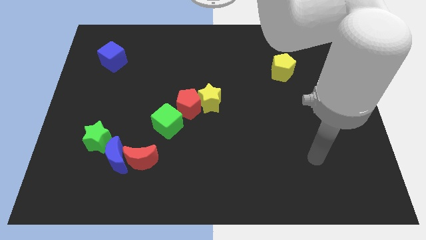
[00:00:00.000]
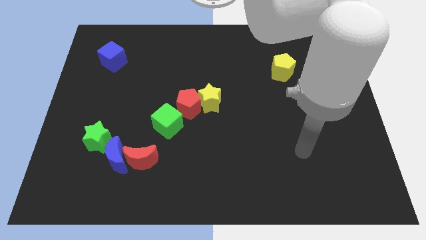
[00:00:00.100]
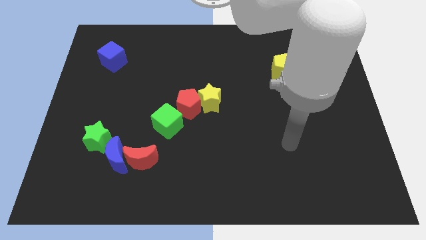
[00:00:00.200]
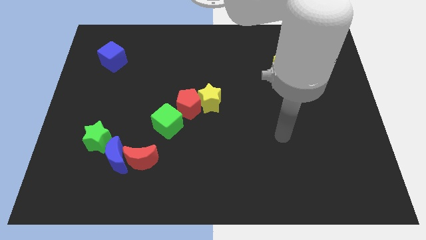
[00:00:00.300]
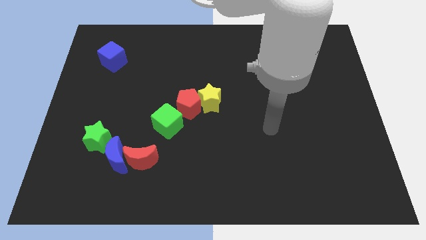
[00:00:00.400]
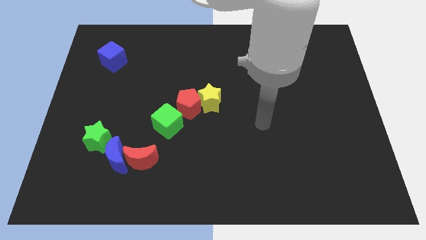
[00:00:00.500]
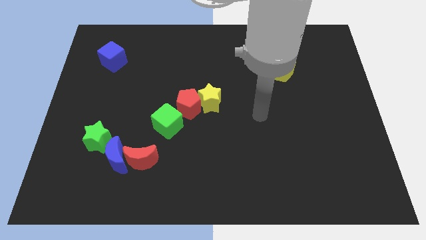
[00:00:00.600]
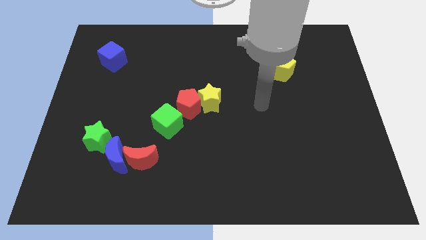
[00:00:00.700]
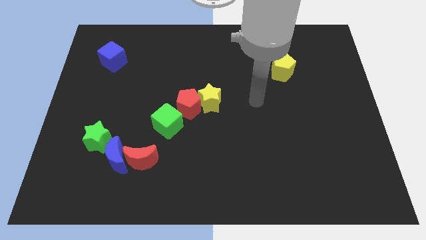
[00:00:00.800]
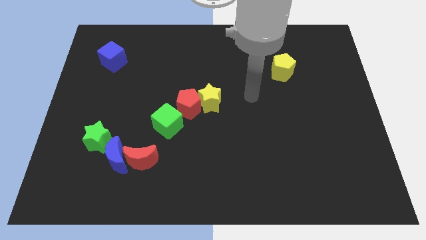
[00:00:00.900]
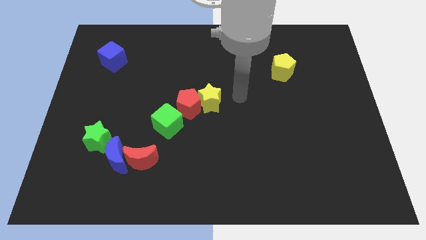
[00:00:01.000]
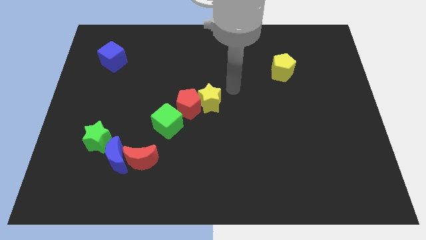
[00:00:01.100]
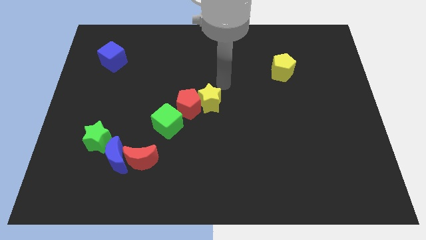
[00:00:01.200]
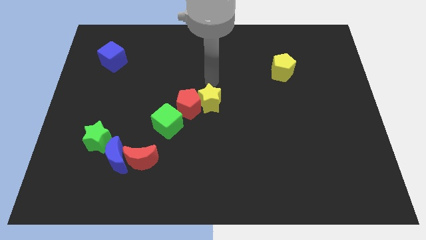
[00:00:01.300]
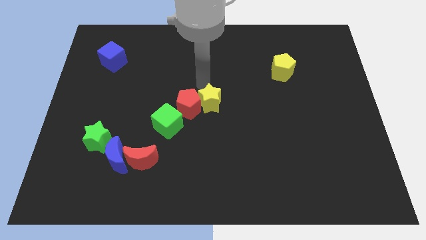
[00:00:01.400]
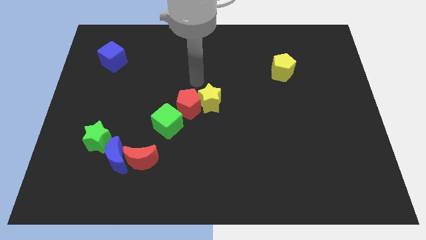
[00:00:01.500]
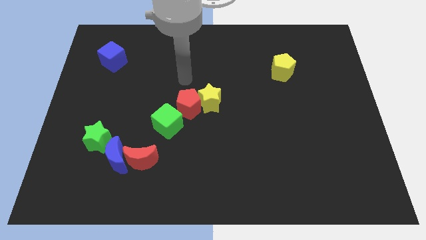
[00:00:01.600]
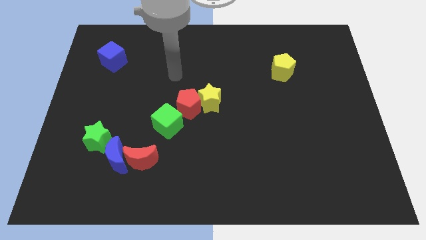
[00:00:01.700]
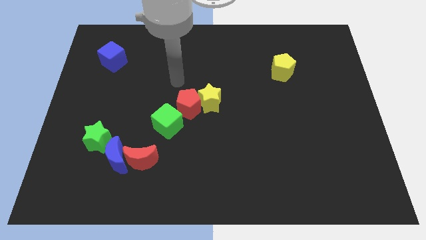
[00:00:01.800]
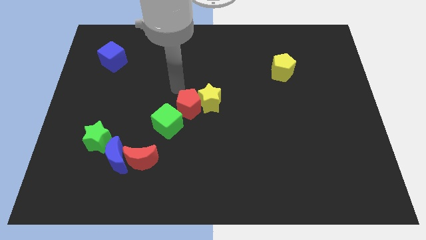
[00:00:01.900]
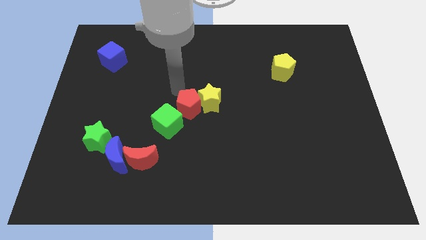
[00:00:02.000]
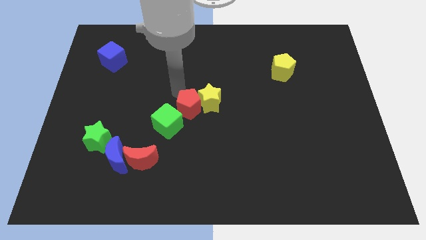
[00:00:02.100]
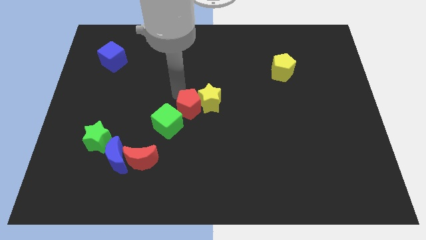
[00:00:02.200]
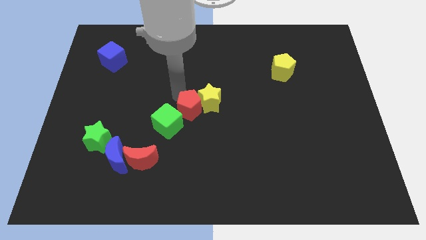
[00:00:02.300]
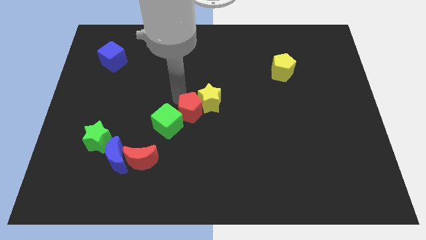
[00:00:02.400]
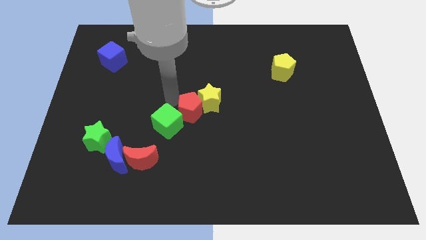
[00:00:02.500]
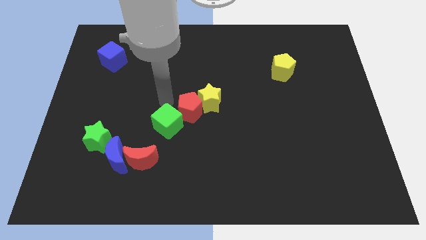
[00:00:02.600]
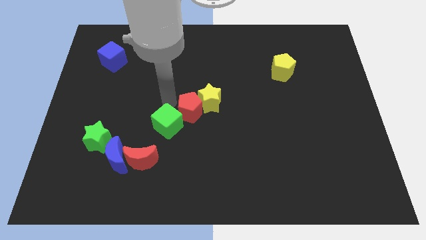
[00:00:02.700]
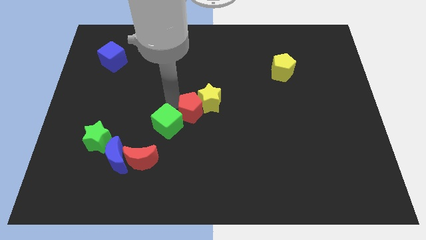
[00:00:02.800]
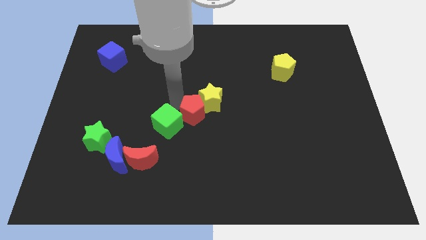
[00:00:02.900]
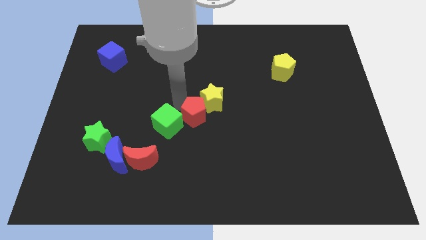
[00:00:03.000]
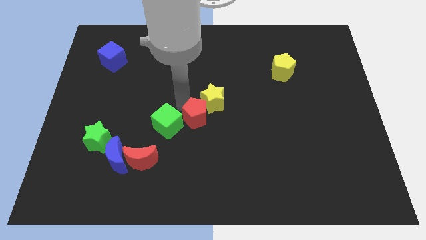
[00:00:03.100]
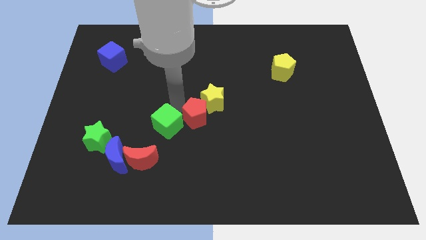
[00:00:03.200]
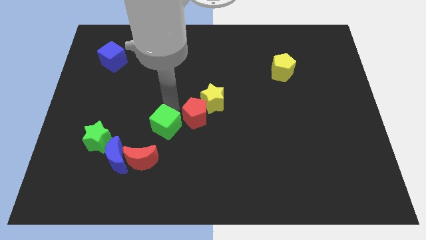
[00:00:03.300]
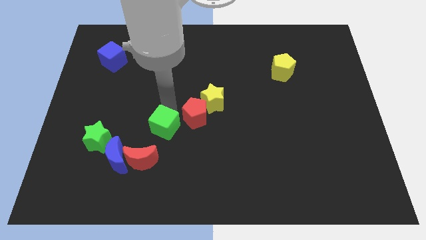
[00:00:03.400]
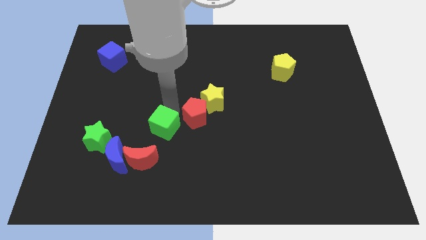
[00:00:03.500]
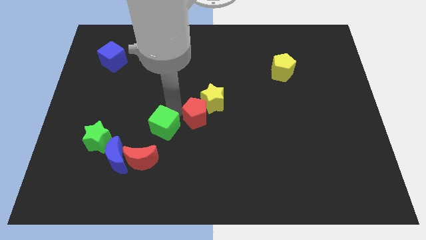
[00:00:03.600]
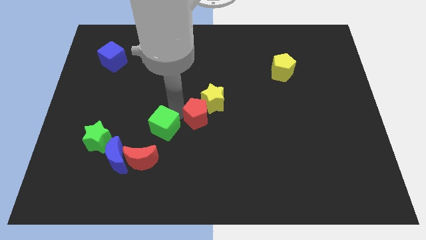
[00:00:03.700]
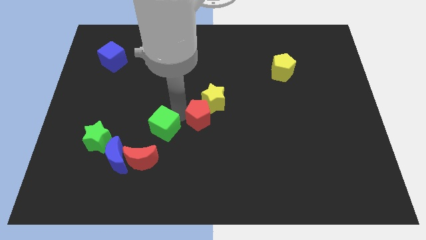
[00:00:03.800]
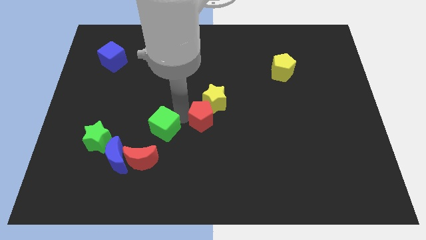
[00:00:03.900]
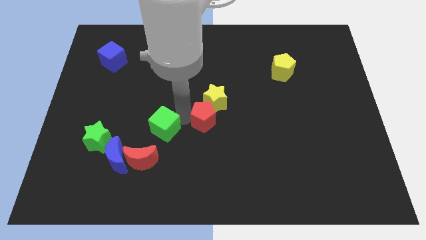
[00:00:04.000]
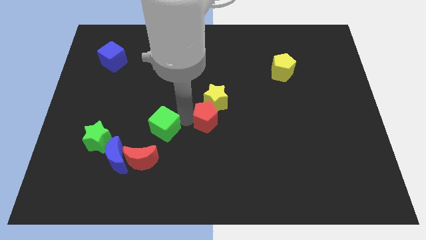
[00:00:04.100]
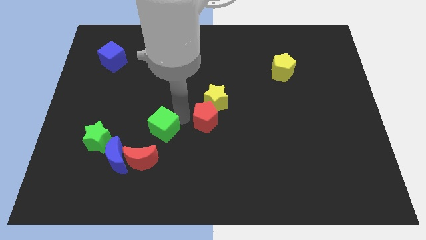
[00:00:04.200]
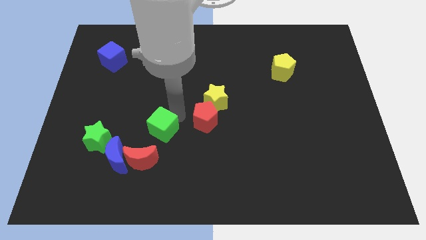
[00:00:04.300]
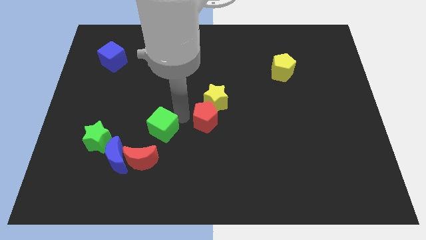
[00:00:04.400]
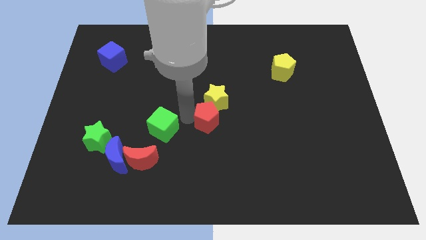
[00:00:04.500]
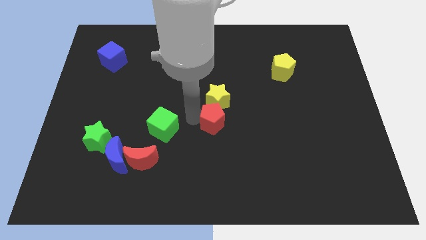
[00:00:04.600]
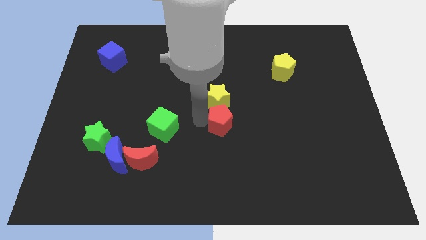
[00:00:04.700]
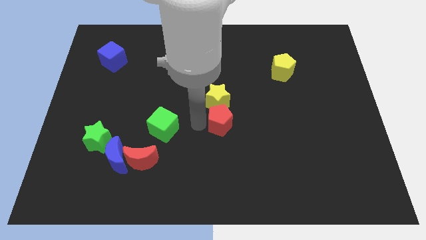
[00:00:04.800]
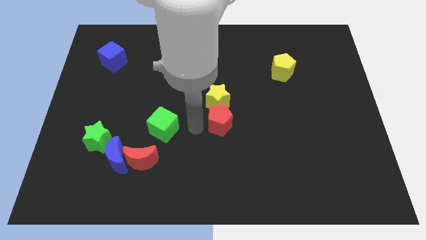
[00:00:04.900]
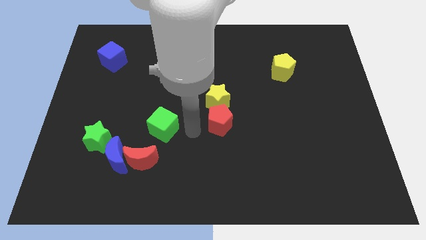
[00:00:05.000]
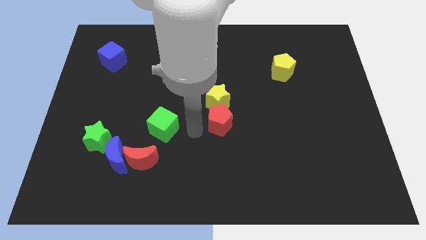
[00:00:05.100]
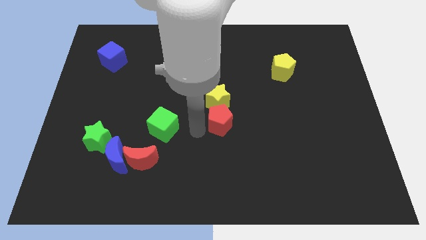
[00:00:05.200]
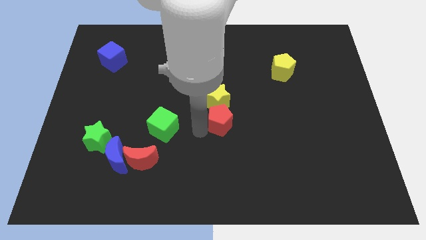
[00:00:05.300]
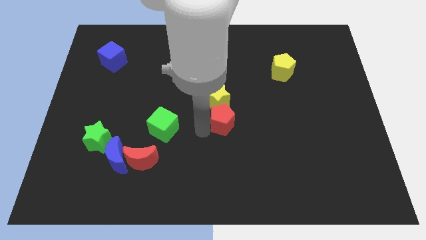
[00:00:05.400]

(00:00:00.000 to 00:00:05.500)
slightly move the red pentagon right

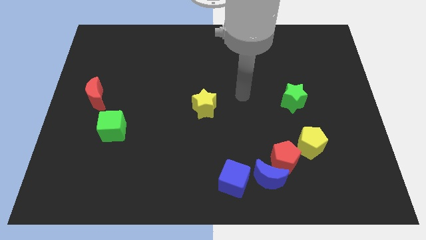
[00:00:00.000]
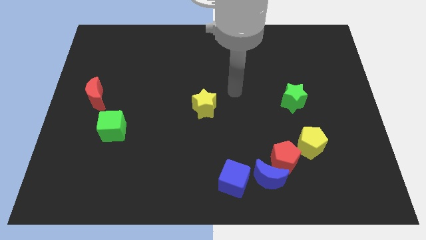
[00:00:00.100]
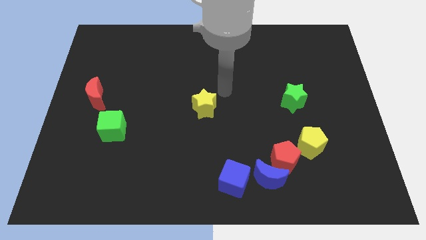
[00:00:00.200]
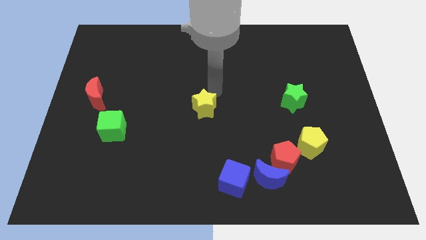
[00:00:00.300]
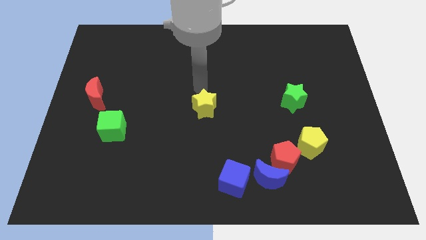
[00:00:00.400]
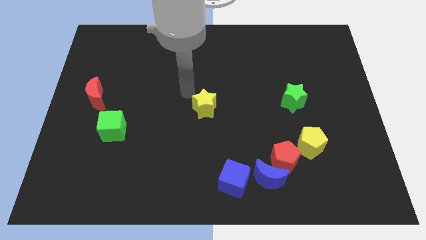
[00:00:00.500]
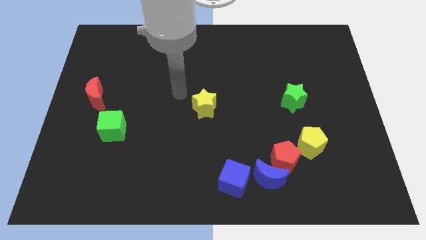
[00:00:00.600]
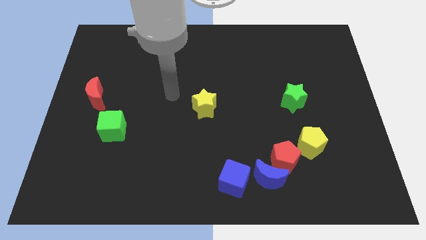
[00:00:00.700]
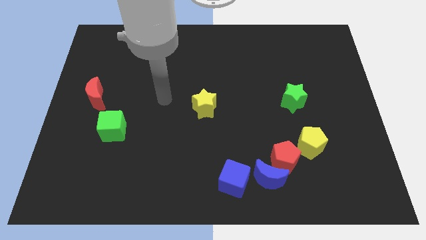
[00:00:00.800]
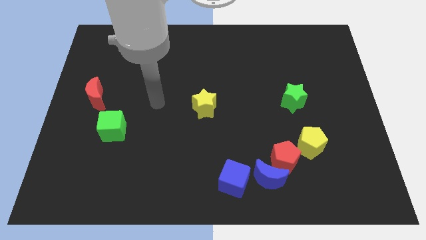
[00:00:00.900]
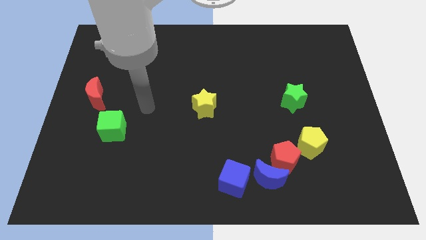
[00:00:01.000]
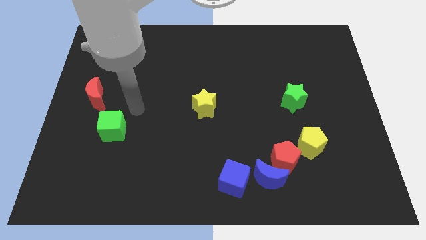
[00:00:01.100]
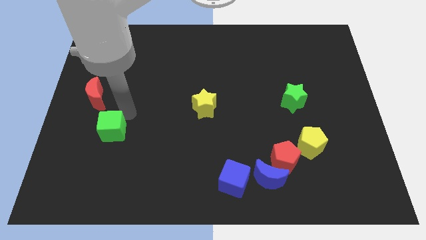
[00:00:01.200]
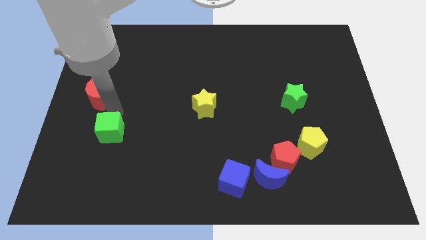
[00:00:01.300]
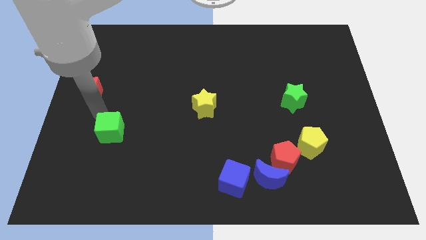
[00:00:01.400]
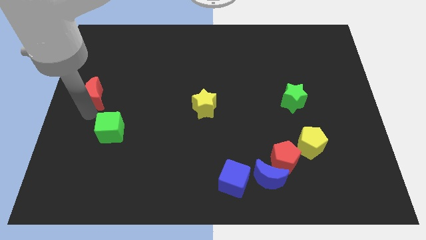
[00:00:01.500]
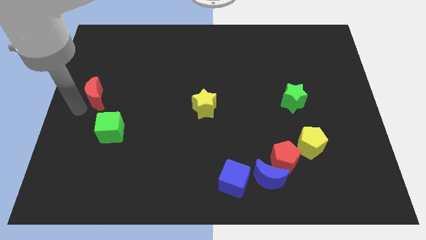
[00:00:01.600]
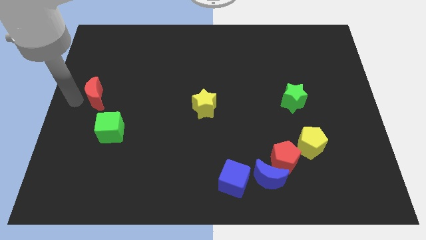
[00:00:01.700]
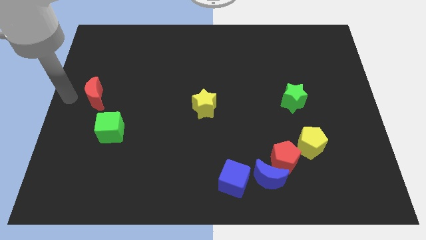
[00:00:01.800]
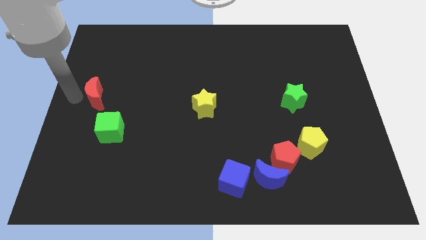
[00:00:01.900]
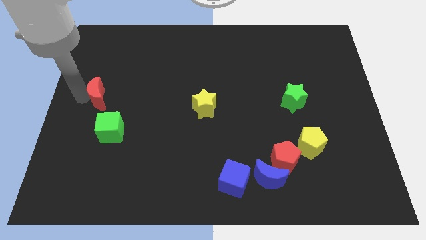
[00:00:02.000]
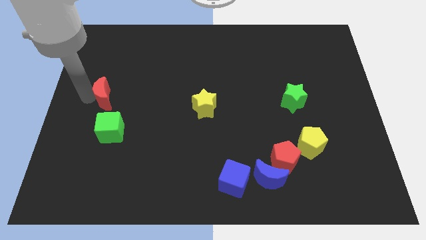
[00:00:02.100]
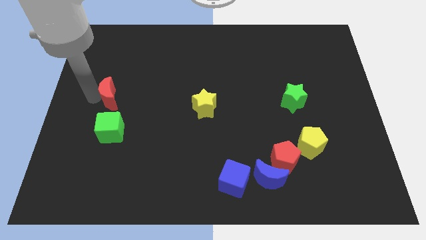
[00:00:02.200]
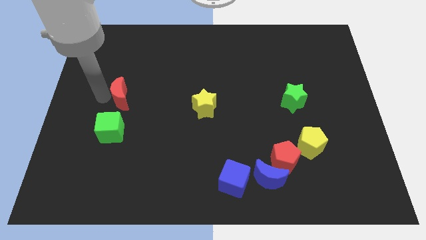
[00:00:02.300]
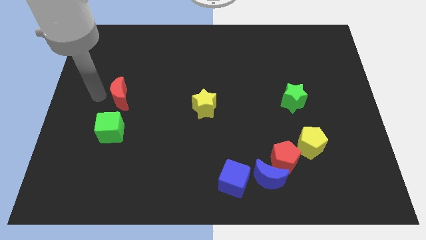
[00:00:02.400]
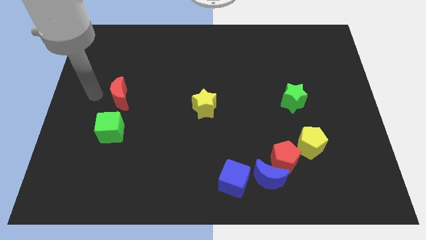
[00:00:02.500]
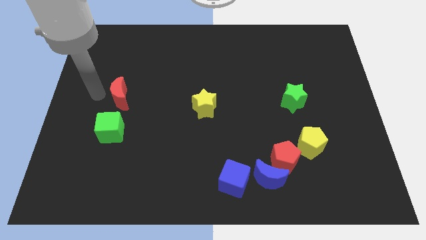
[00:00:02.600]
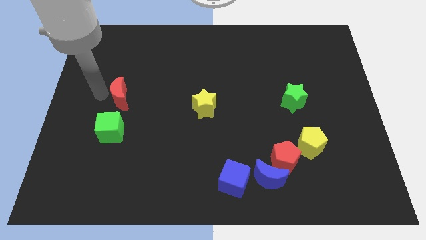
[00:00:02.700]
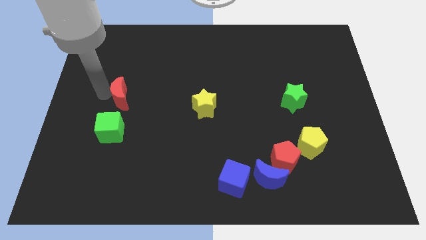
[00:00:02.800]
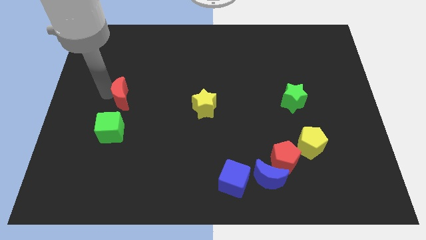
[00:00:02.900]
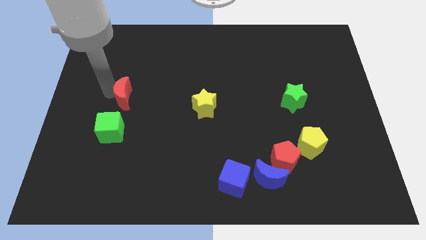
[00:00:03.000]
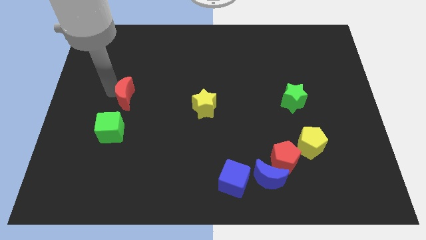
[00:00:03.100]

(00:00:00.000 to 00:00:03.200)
slide the red moon somewhat right
